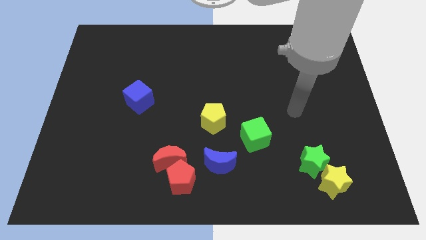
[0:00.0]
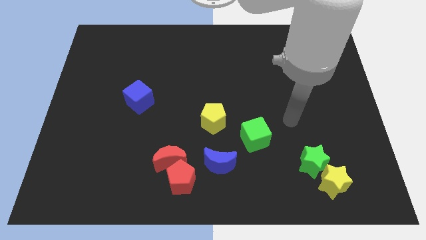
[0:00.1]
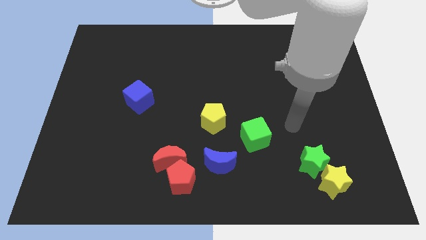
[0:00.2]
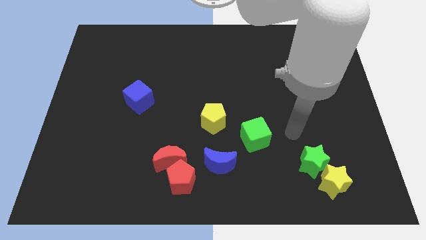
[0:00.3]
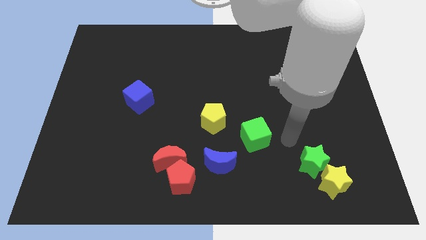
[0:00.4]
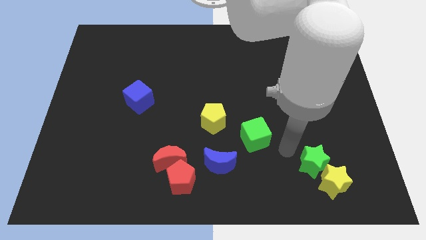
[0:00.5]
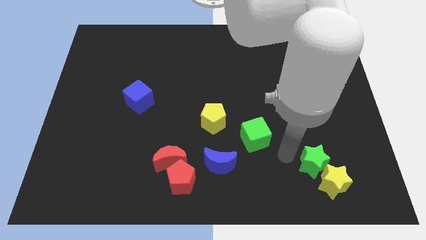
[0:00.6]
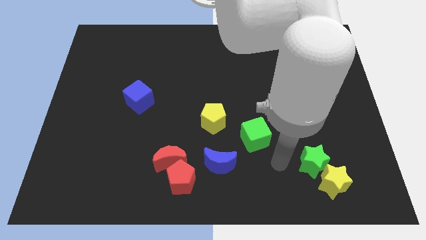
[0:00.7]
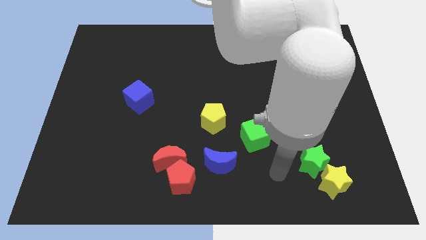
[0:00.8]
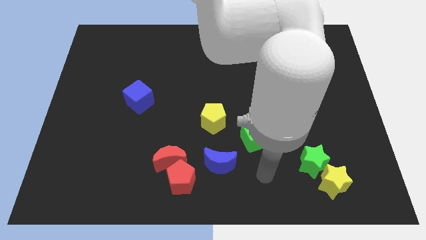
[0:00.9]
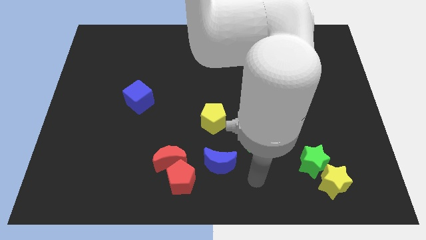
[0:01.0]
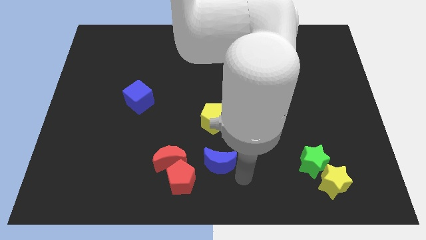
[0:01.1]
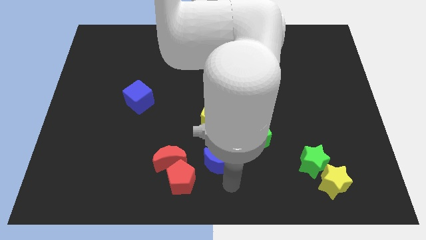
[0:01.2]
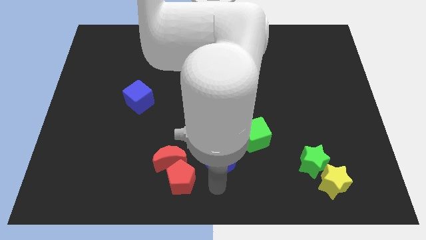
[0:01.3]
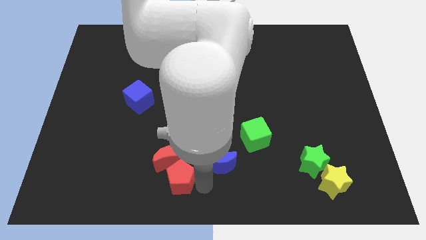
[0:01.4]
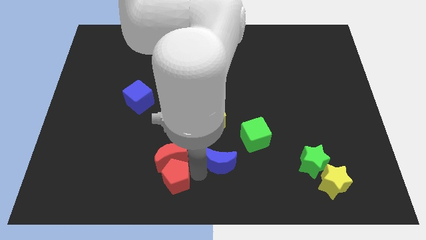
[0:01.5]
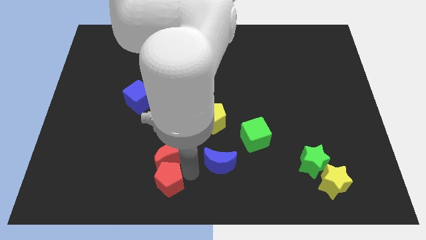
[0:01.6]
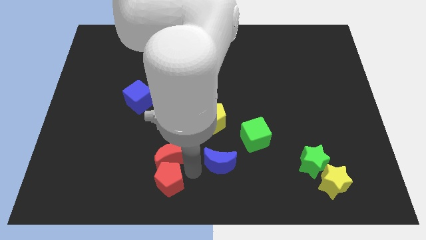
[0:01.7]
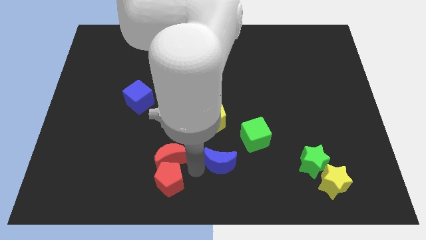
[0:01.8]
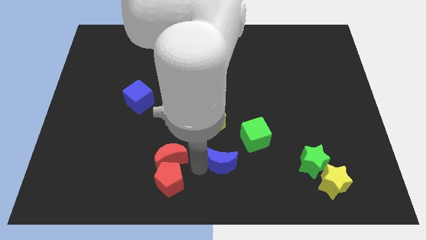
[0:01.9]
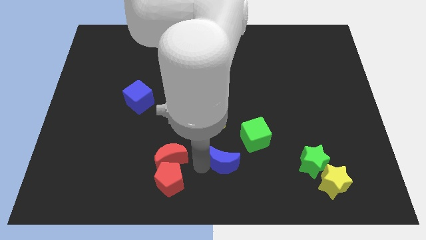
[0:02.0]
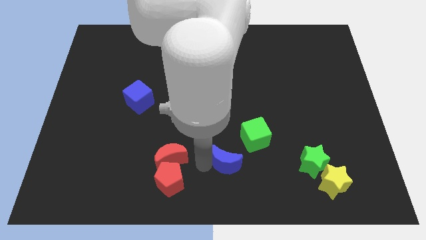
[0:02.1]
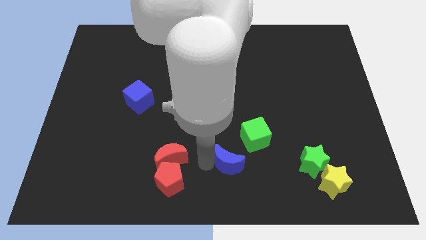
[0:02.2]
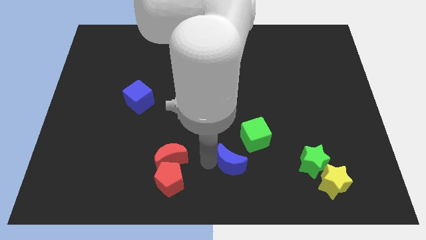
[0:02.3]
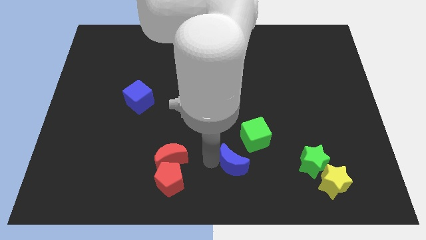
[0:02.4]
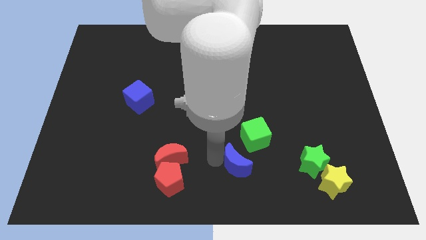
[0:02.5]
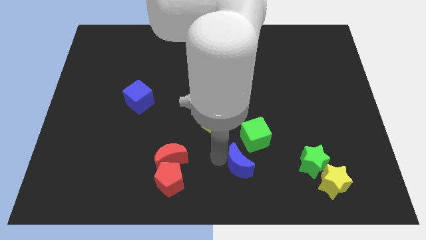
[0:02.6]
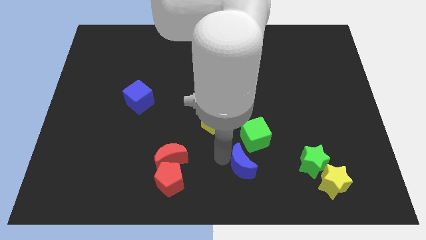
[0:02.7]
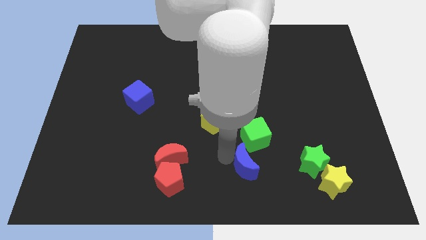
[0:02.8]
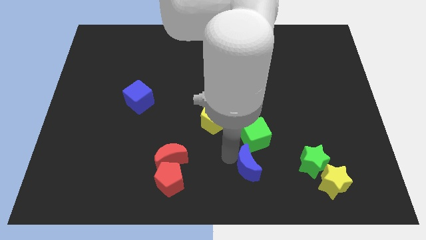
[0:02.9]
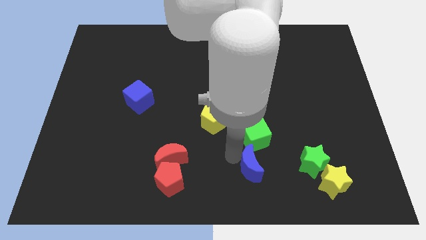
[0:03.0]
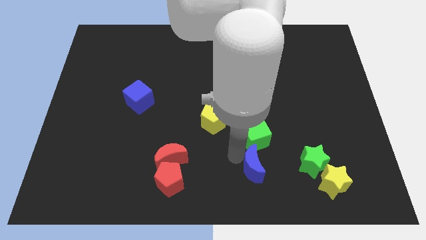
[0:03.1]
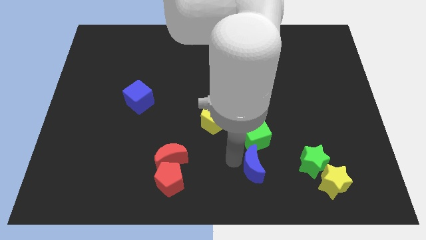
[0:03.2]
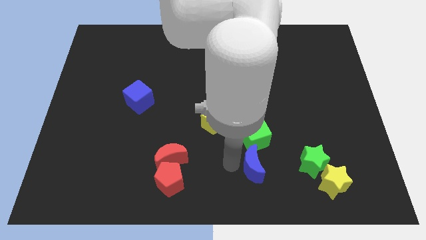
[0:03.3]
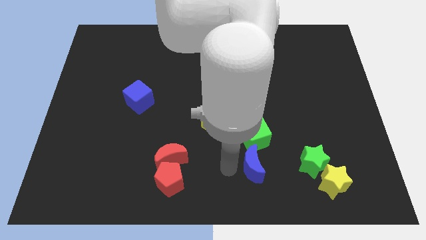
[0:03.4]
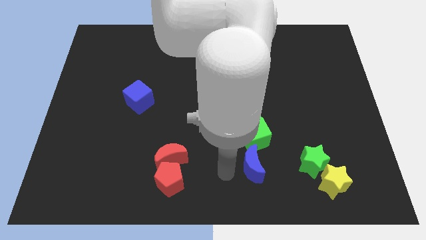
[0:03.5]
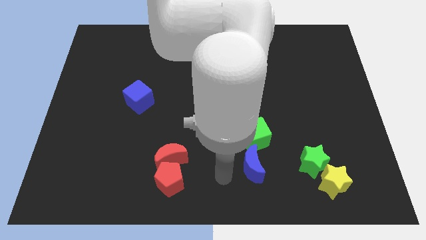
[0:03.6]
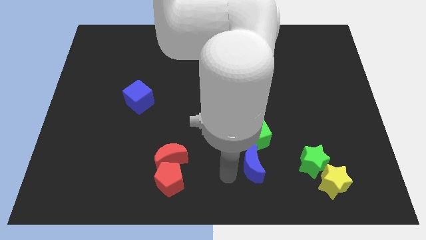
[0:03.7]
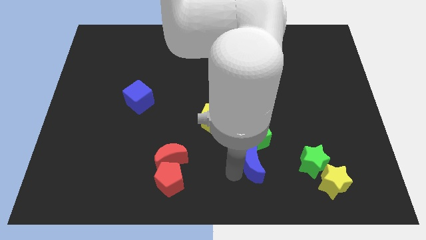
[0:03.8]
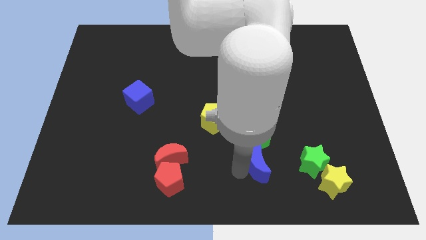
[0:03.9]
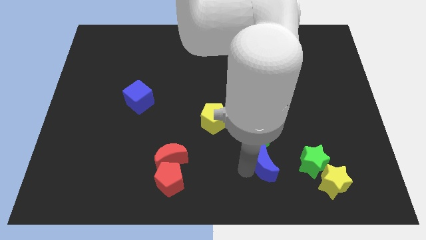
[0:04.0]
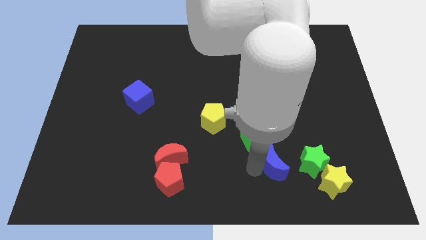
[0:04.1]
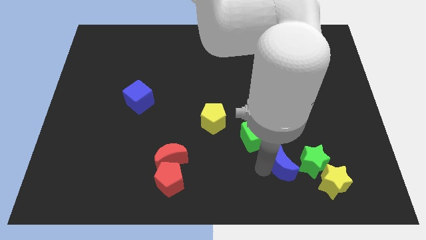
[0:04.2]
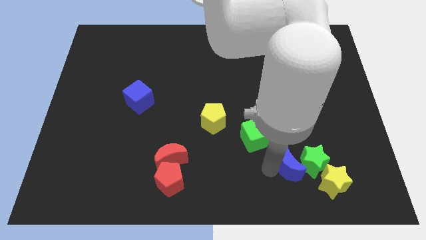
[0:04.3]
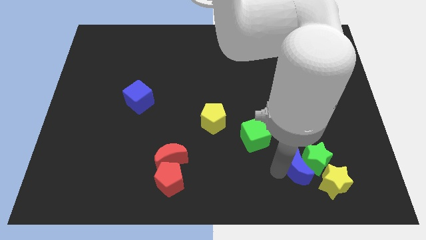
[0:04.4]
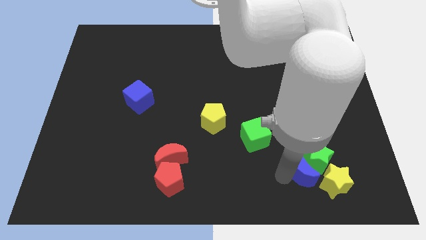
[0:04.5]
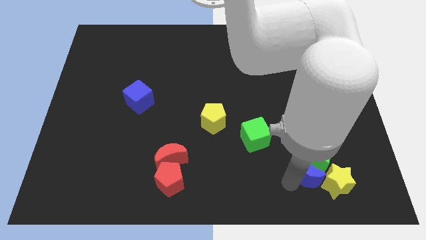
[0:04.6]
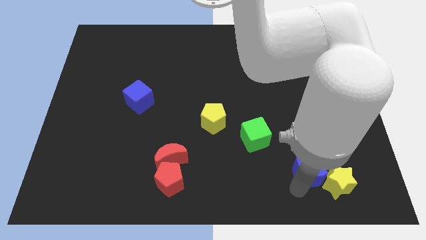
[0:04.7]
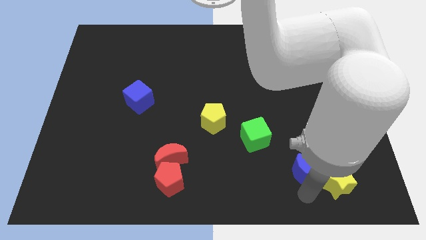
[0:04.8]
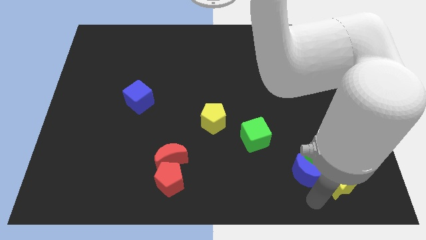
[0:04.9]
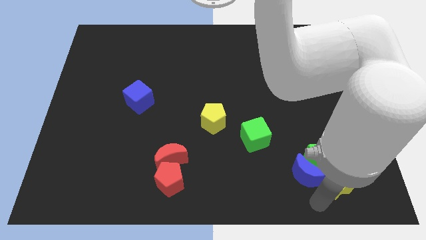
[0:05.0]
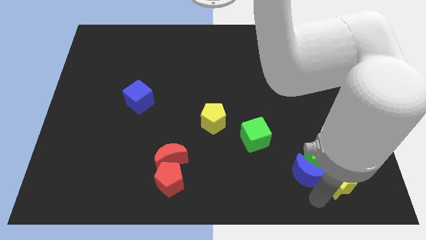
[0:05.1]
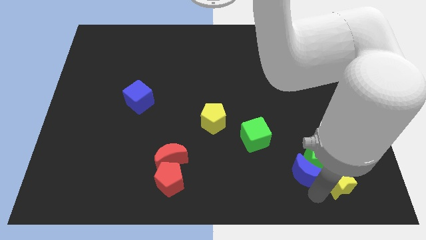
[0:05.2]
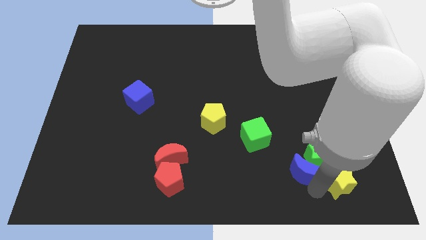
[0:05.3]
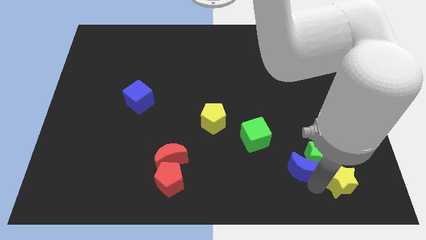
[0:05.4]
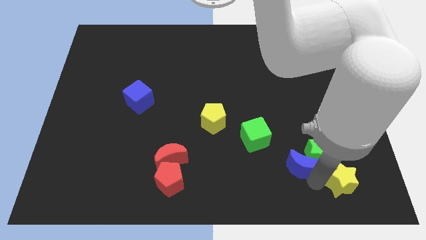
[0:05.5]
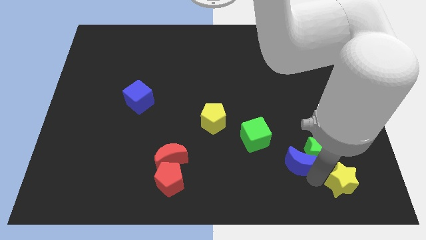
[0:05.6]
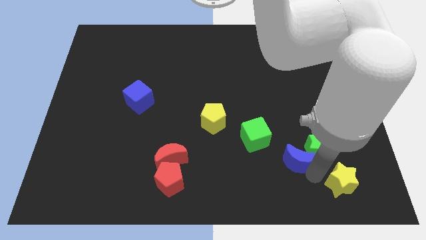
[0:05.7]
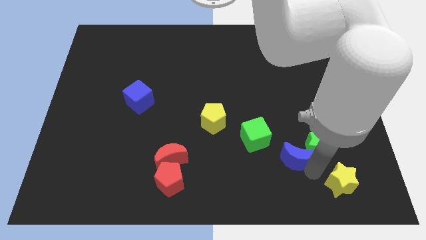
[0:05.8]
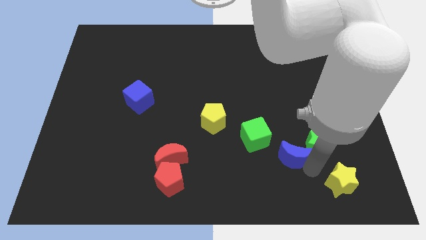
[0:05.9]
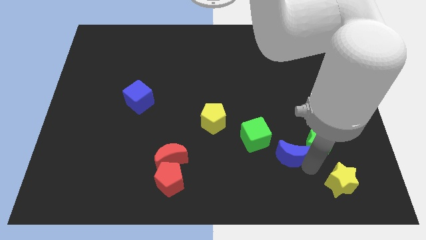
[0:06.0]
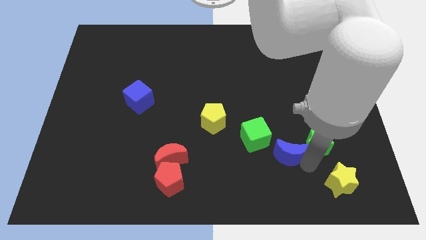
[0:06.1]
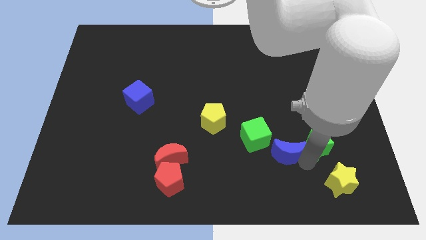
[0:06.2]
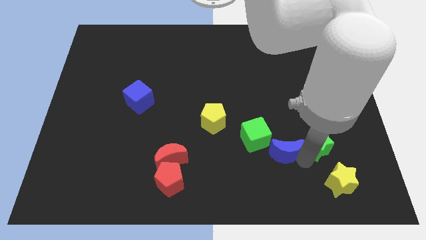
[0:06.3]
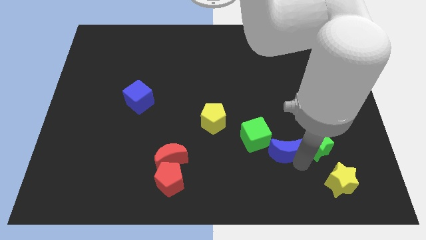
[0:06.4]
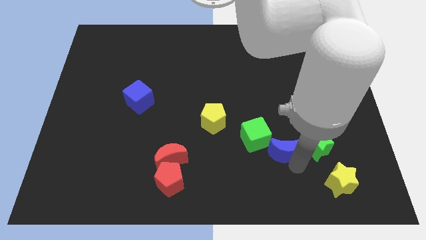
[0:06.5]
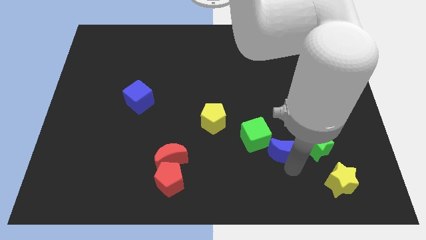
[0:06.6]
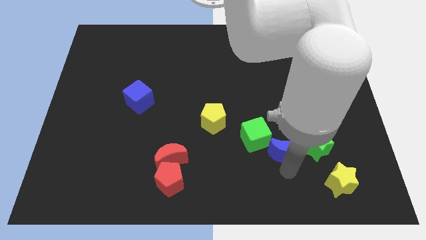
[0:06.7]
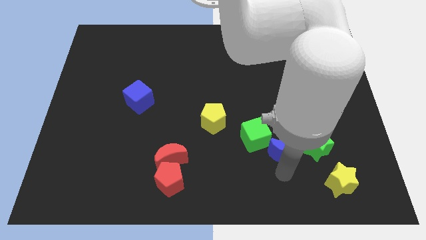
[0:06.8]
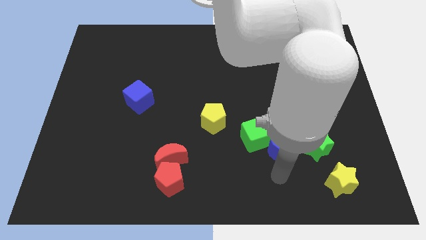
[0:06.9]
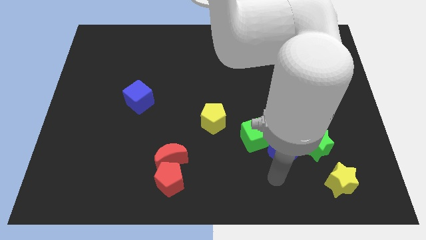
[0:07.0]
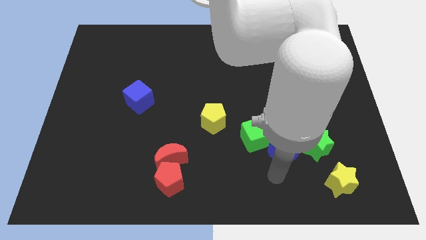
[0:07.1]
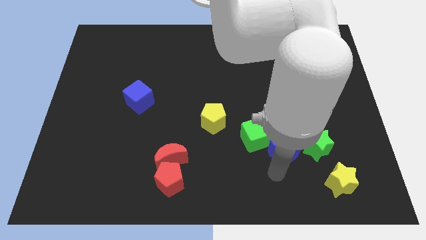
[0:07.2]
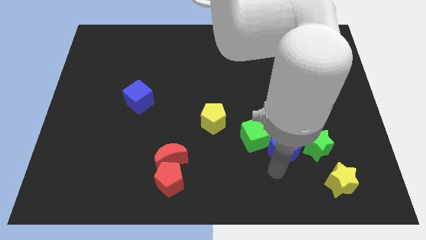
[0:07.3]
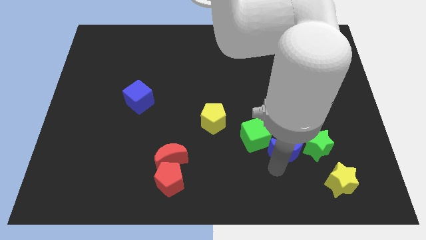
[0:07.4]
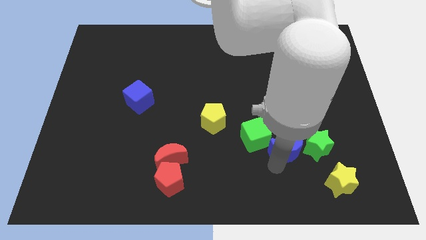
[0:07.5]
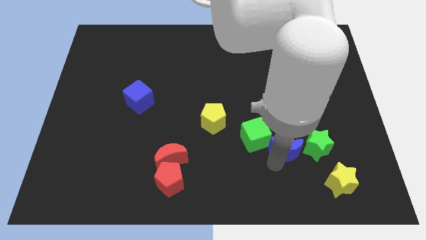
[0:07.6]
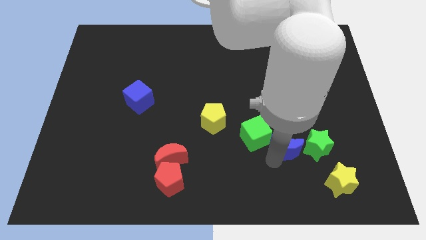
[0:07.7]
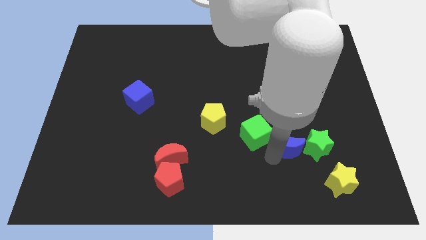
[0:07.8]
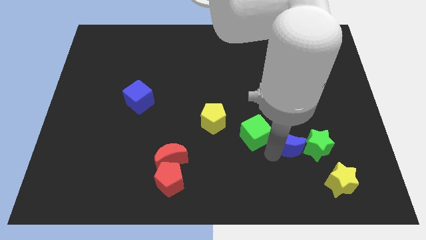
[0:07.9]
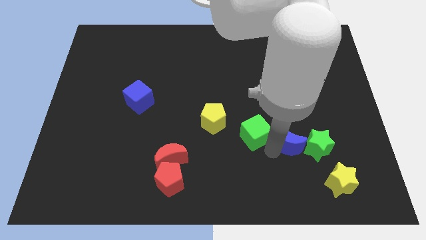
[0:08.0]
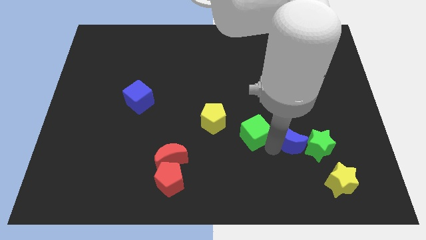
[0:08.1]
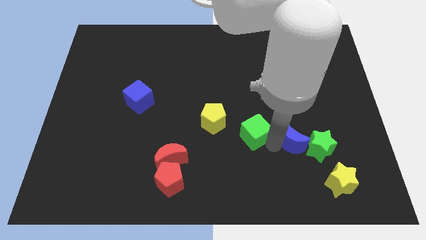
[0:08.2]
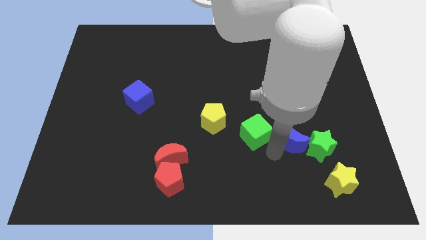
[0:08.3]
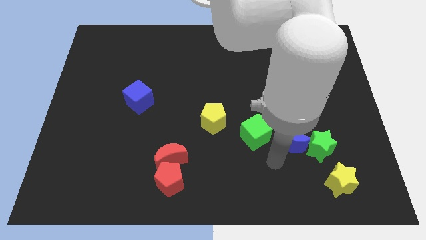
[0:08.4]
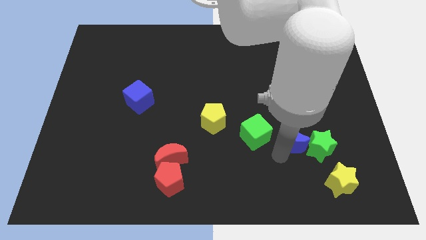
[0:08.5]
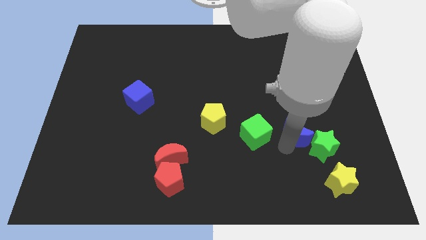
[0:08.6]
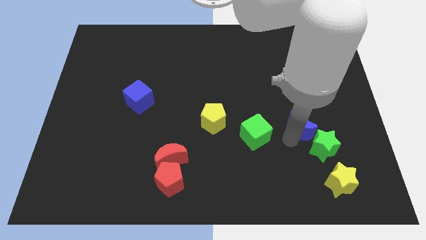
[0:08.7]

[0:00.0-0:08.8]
slide the blue moon to the top side of the green star
